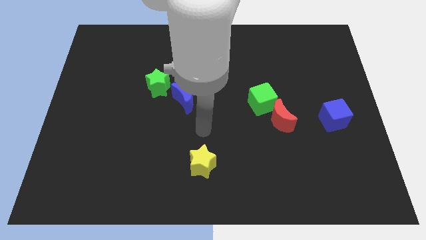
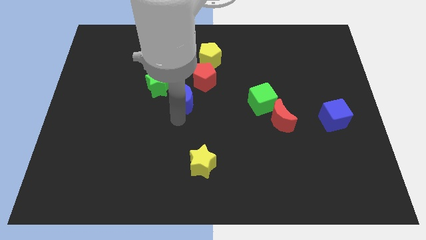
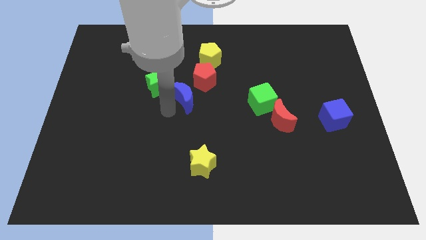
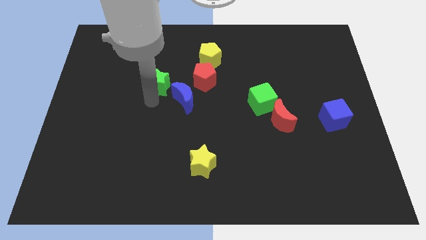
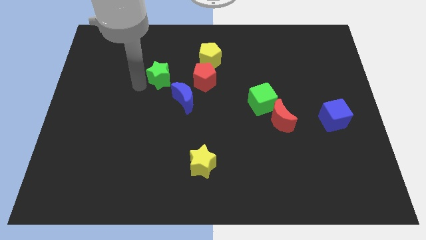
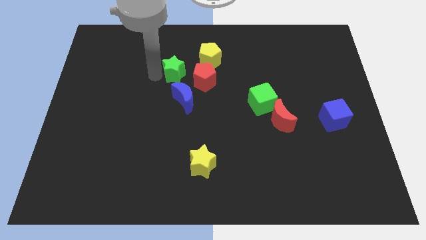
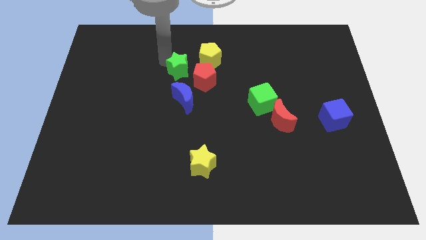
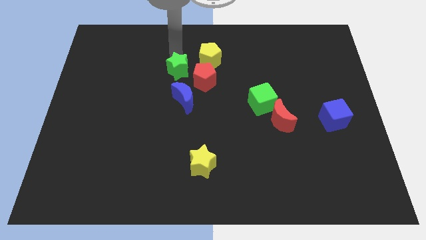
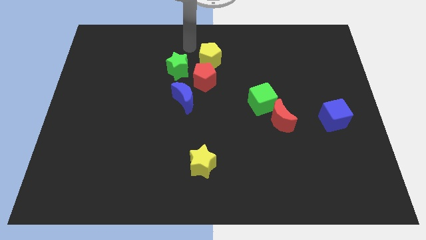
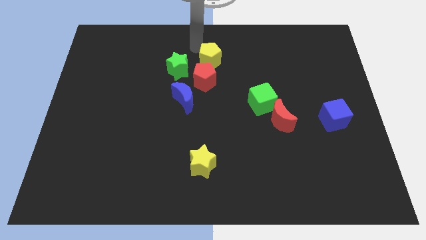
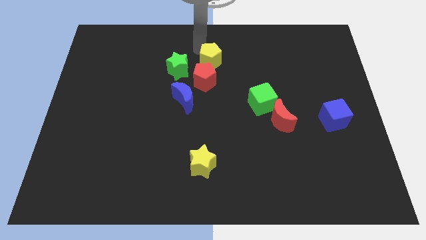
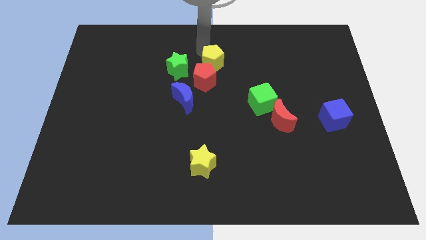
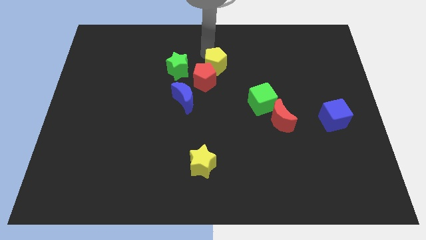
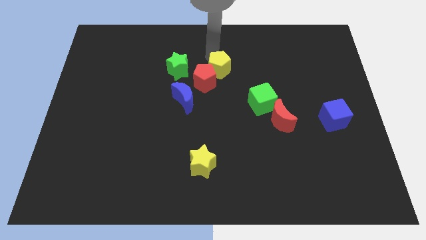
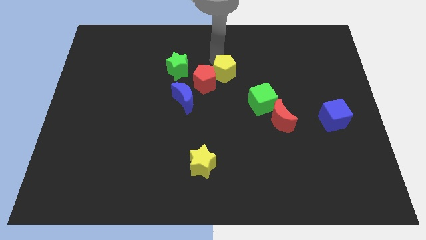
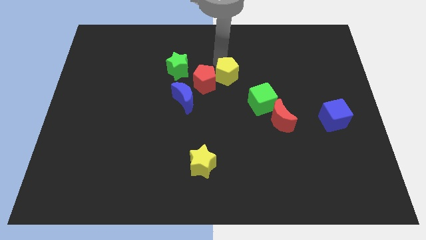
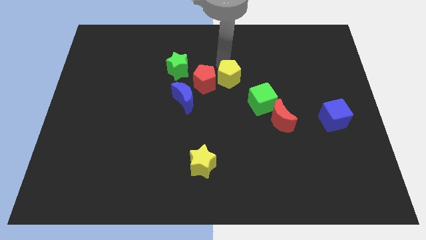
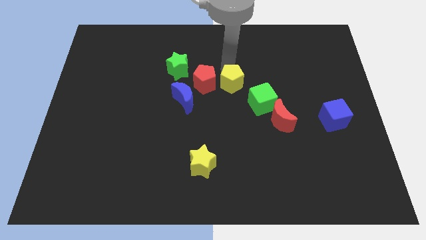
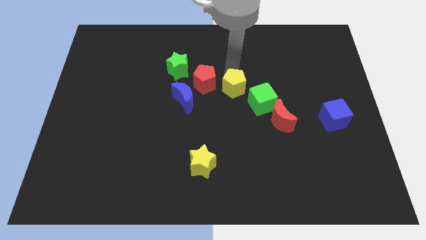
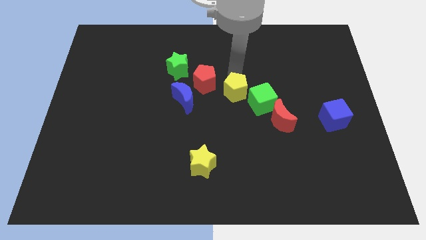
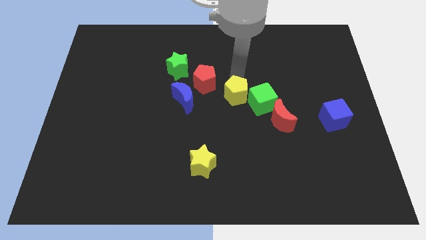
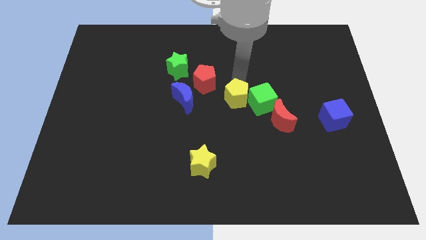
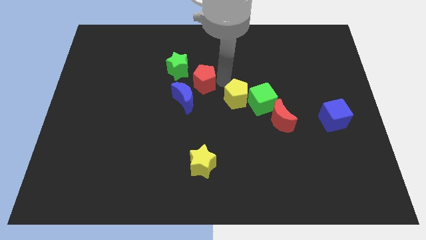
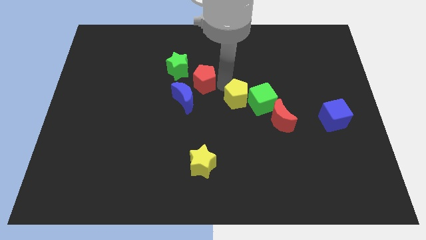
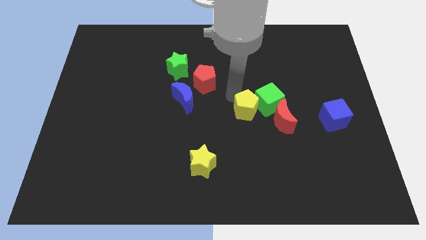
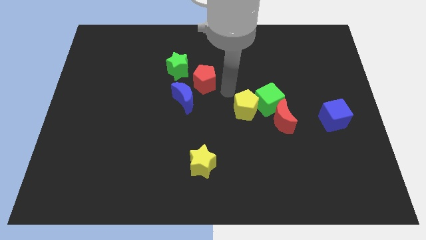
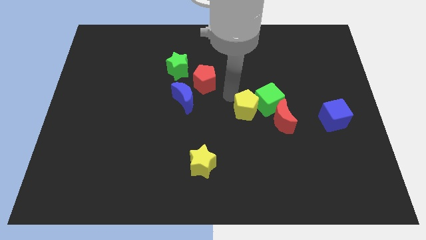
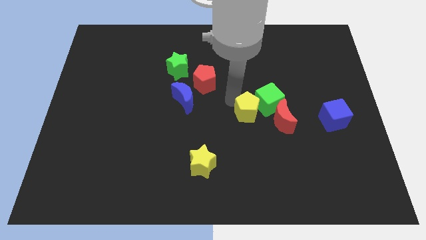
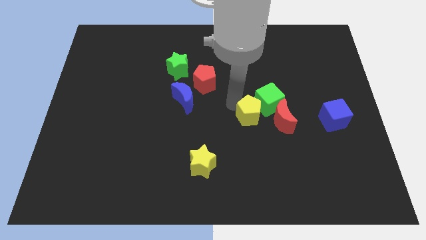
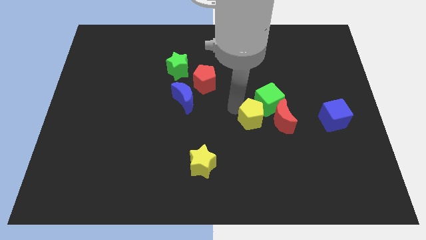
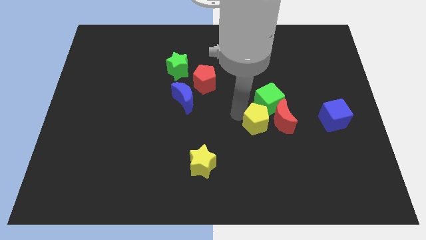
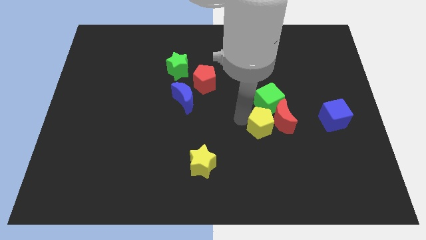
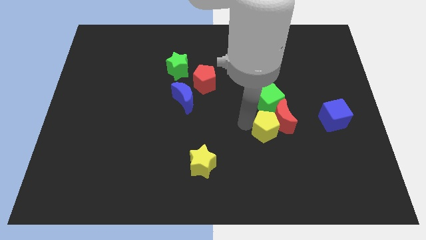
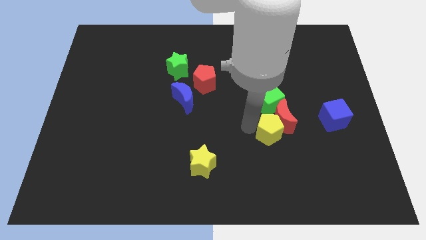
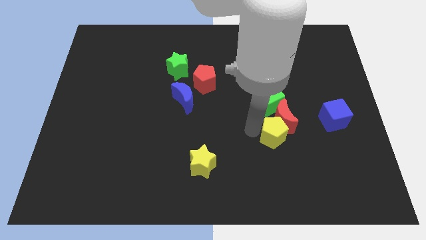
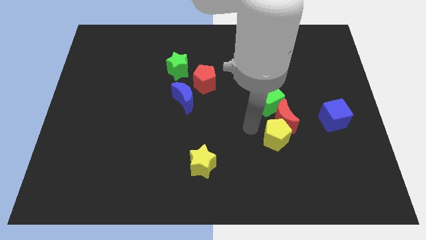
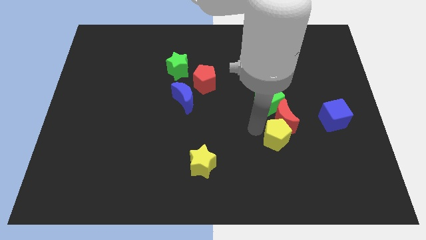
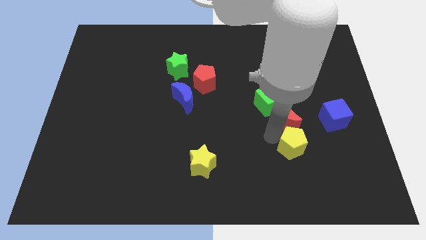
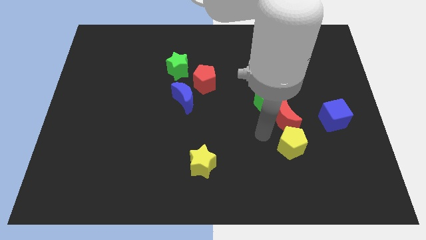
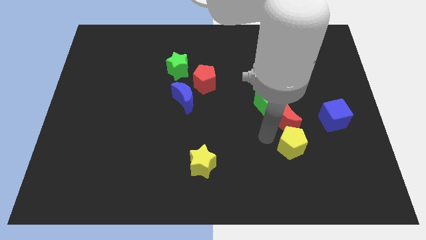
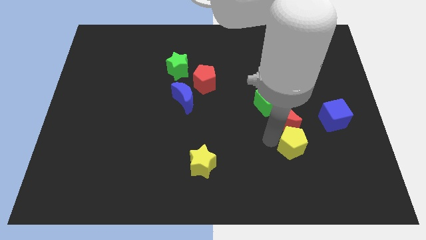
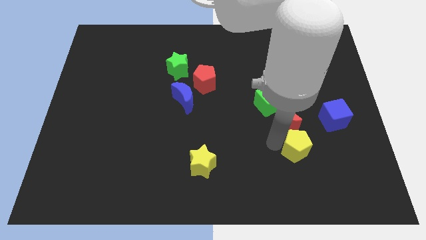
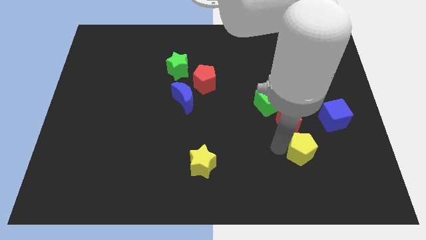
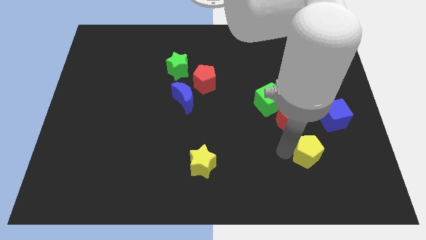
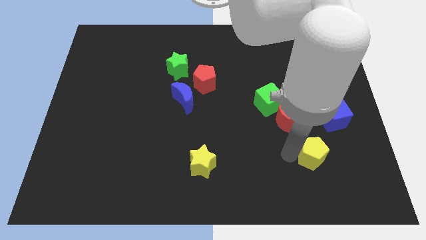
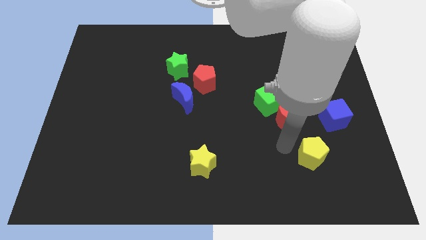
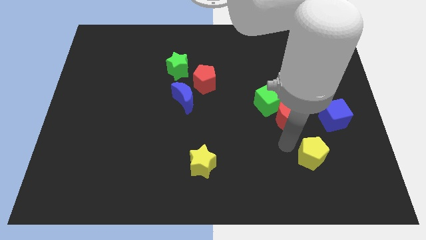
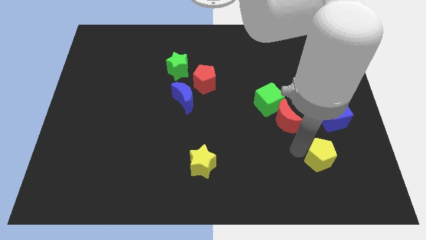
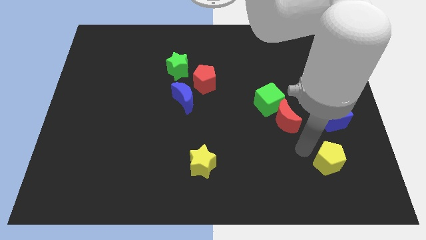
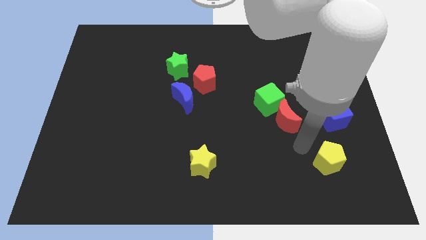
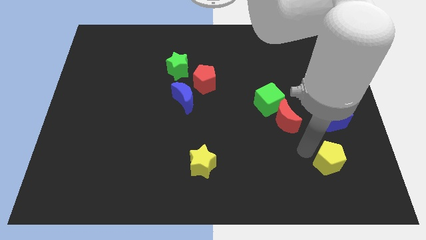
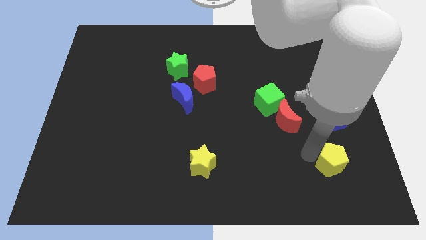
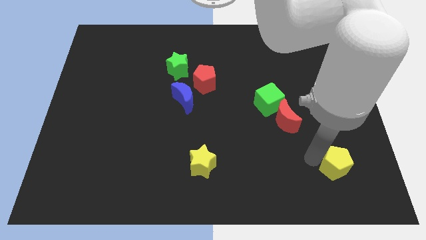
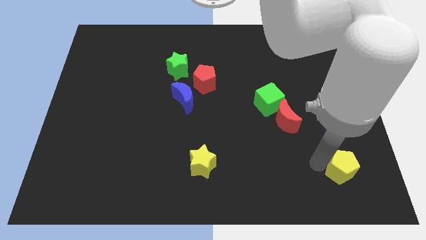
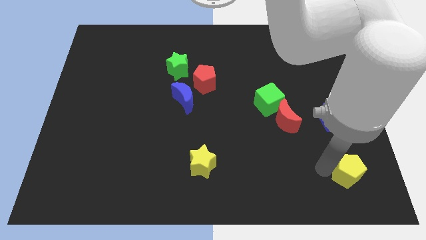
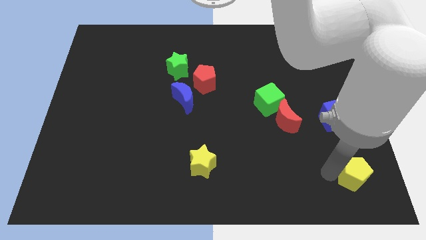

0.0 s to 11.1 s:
put the yellow pentagon to the lower right corner
